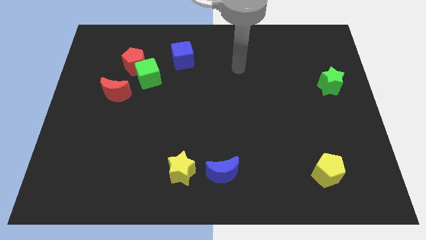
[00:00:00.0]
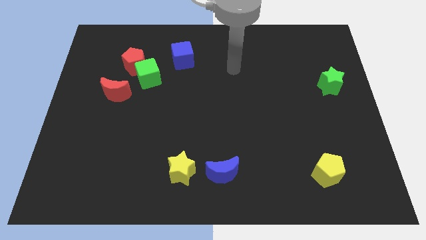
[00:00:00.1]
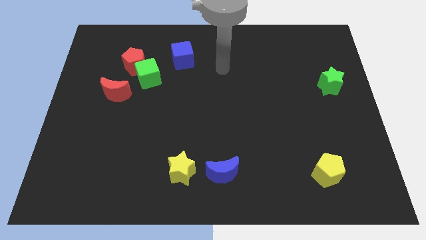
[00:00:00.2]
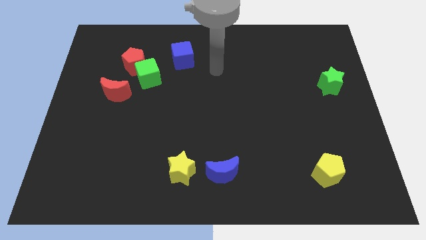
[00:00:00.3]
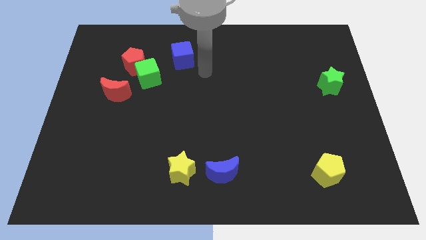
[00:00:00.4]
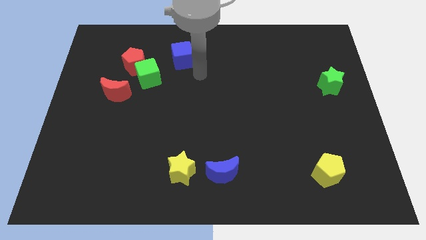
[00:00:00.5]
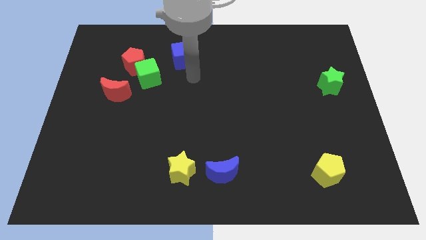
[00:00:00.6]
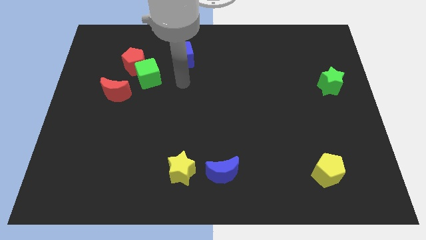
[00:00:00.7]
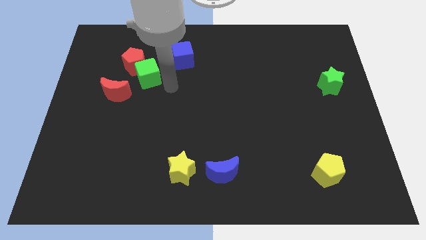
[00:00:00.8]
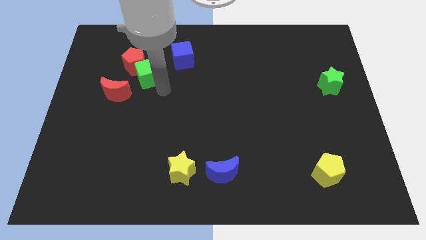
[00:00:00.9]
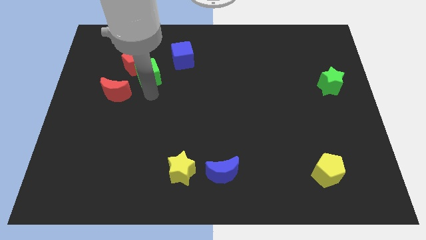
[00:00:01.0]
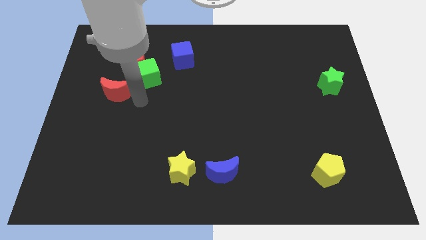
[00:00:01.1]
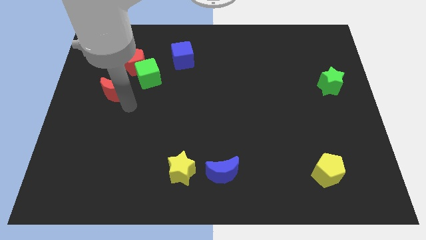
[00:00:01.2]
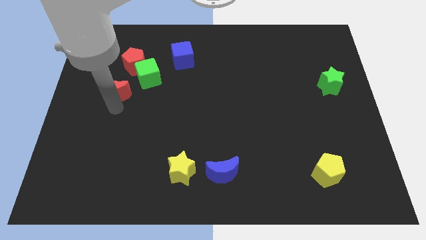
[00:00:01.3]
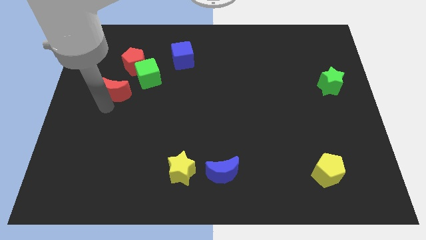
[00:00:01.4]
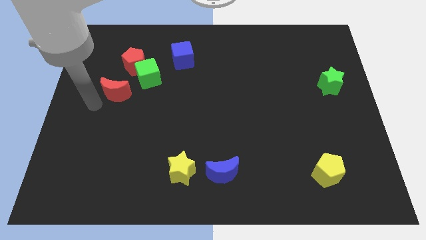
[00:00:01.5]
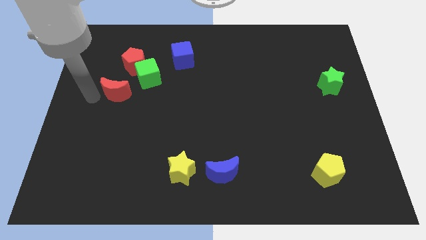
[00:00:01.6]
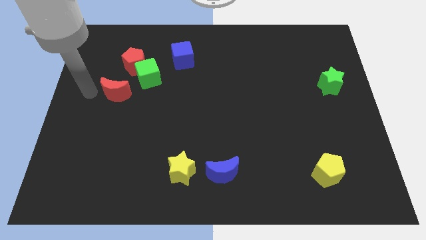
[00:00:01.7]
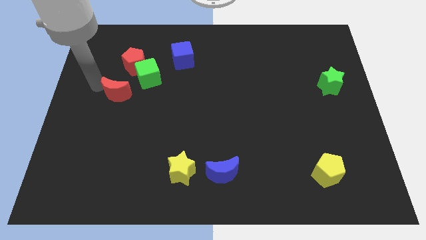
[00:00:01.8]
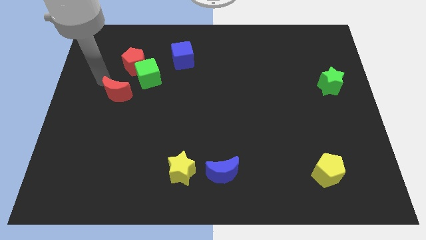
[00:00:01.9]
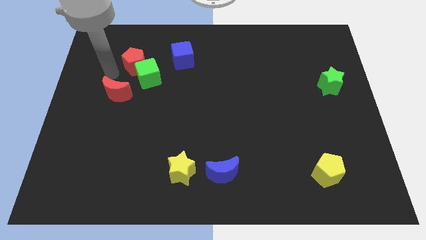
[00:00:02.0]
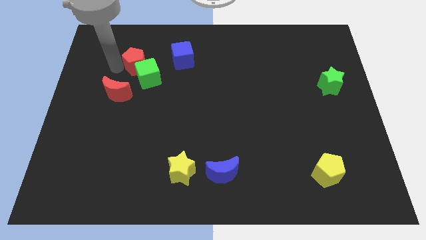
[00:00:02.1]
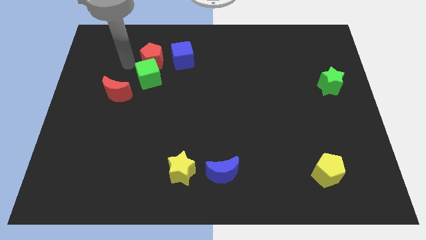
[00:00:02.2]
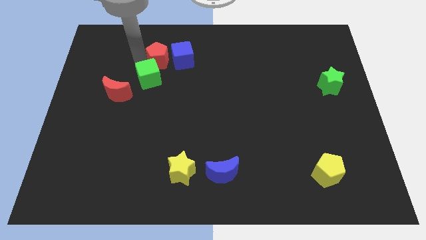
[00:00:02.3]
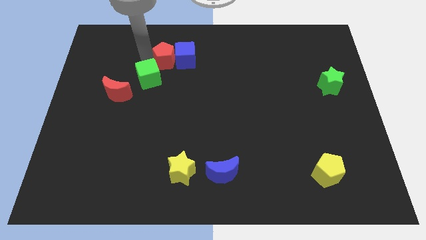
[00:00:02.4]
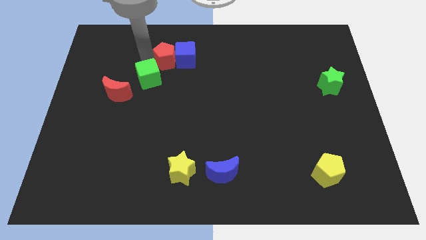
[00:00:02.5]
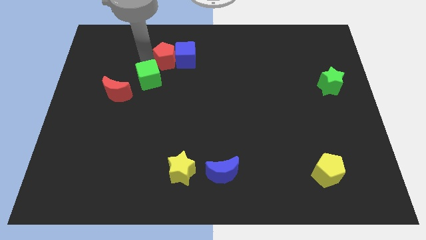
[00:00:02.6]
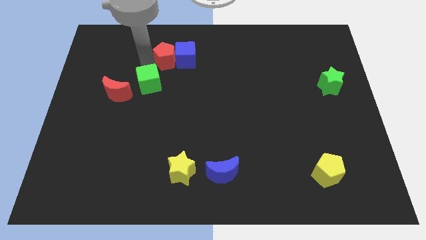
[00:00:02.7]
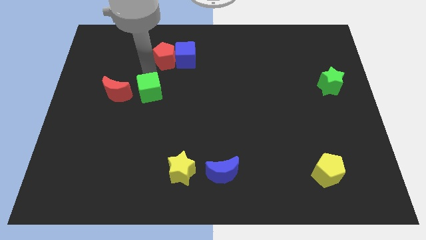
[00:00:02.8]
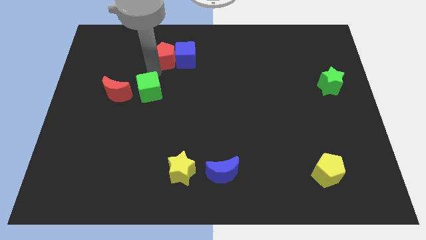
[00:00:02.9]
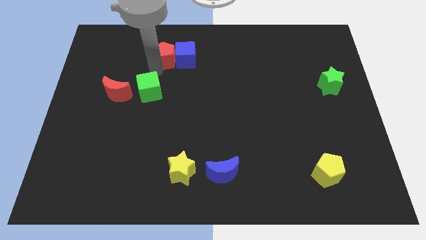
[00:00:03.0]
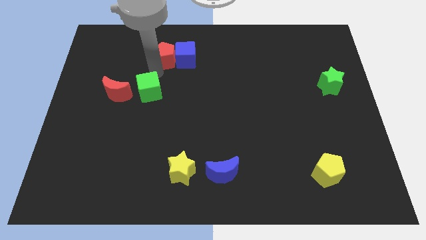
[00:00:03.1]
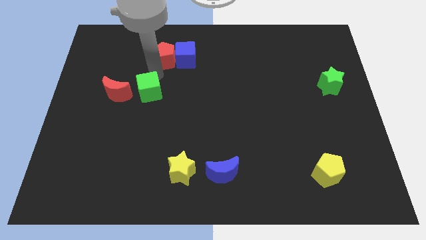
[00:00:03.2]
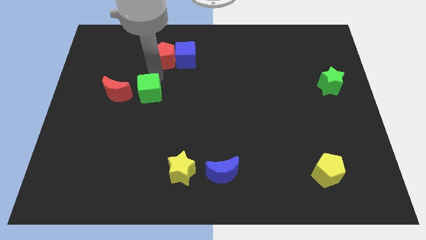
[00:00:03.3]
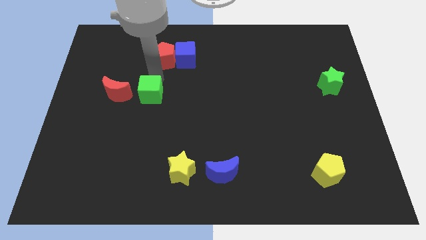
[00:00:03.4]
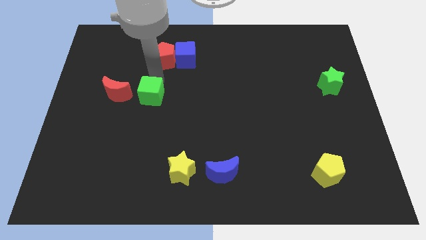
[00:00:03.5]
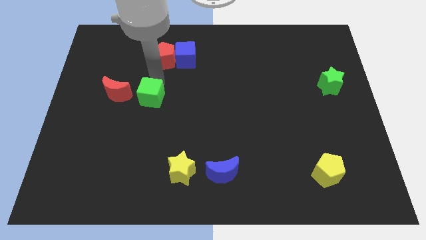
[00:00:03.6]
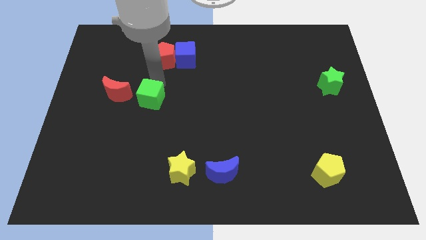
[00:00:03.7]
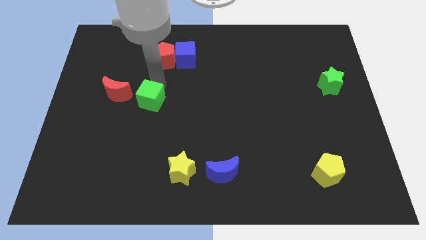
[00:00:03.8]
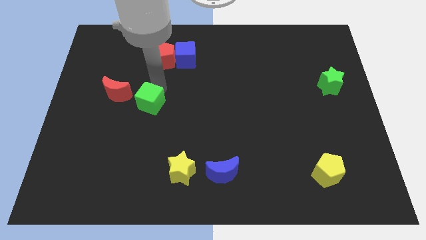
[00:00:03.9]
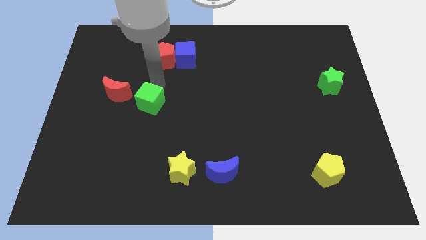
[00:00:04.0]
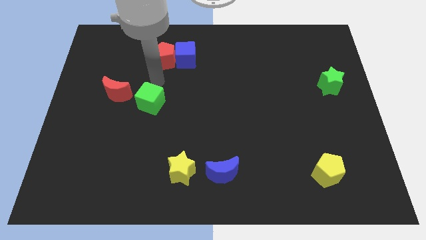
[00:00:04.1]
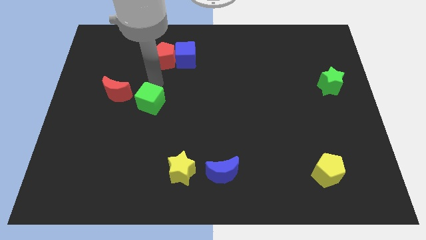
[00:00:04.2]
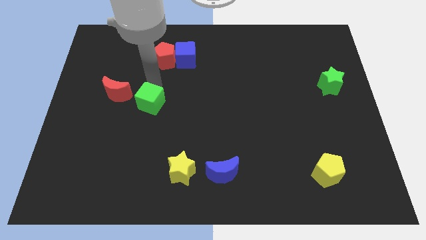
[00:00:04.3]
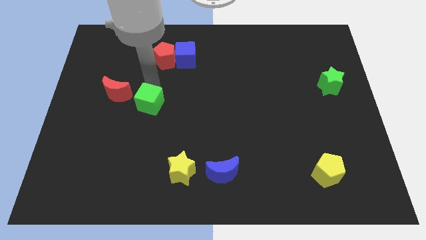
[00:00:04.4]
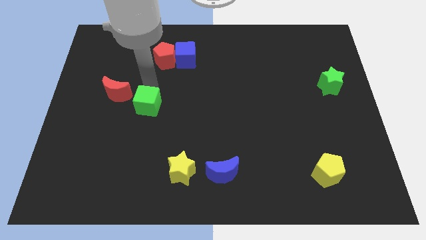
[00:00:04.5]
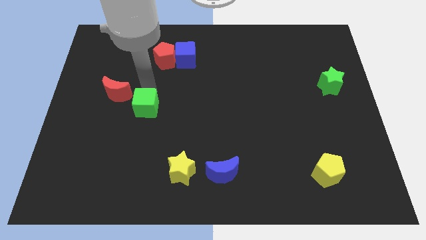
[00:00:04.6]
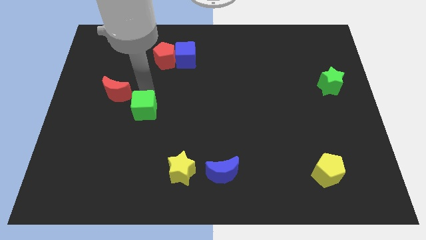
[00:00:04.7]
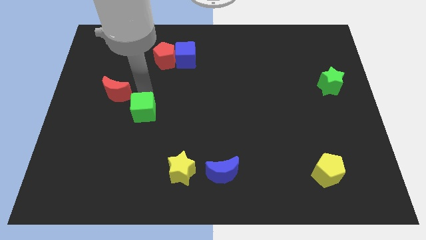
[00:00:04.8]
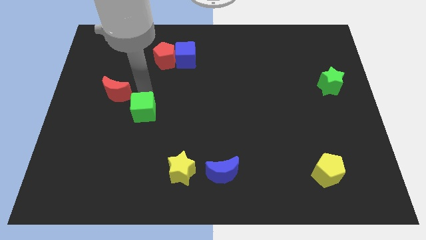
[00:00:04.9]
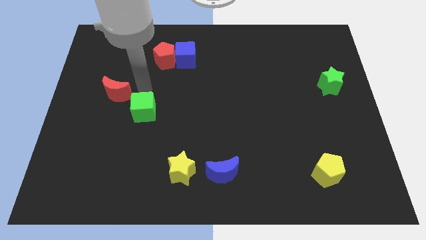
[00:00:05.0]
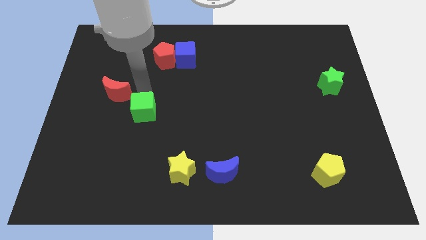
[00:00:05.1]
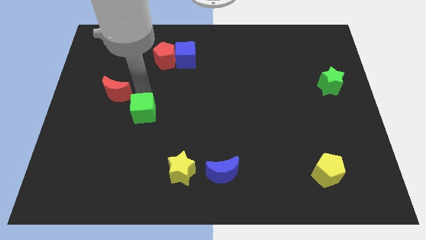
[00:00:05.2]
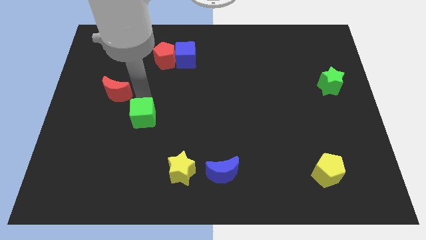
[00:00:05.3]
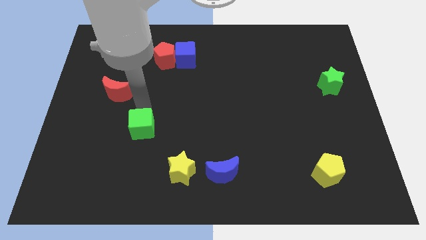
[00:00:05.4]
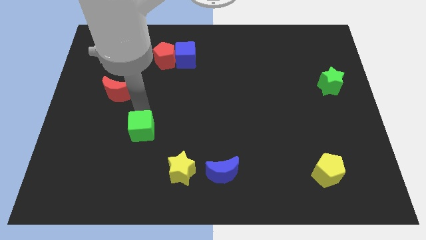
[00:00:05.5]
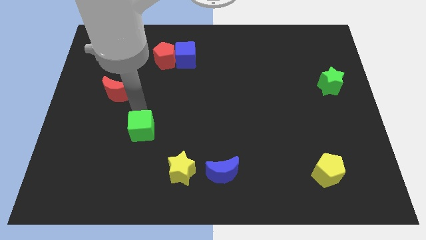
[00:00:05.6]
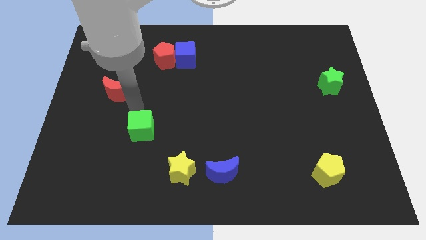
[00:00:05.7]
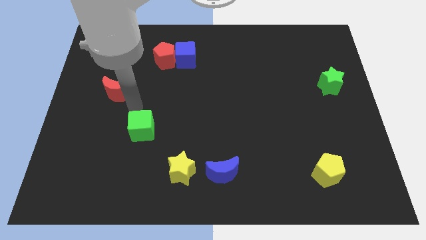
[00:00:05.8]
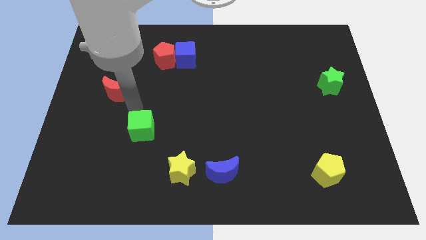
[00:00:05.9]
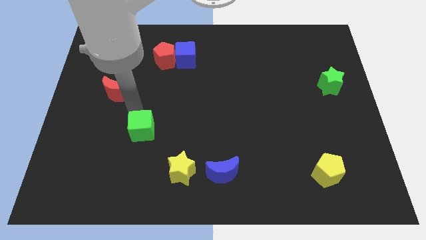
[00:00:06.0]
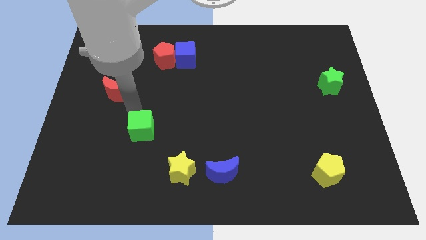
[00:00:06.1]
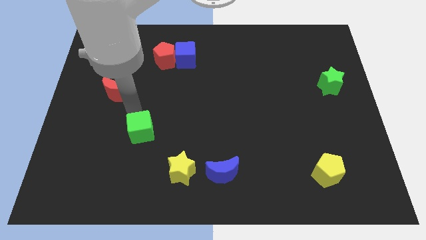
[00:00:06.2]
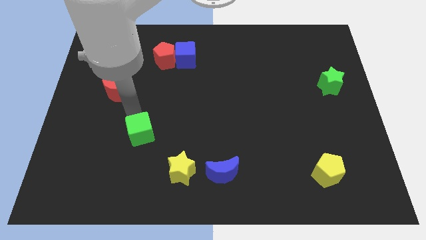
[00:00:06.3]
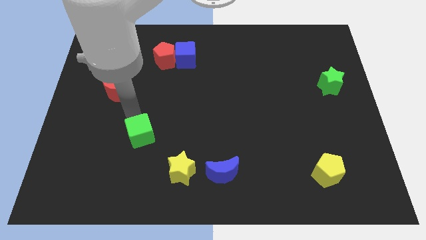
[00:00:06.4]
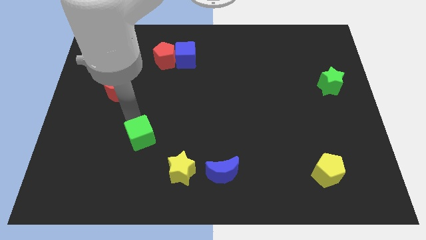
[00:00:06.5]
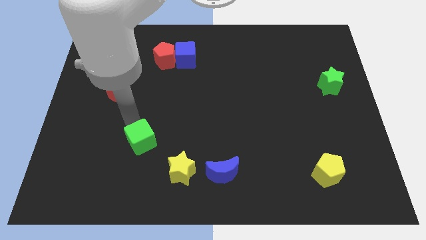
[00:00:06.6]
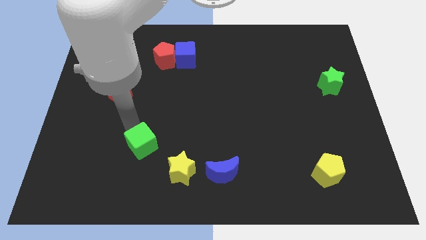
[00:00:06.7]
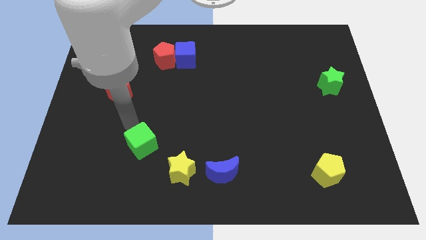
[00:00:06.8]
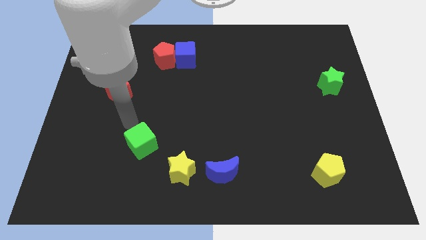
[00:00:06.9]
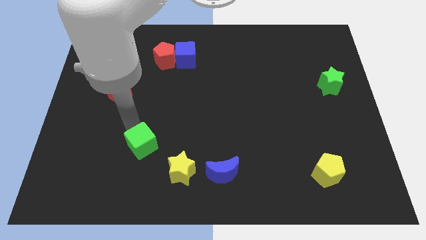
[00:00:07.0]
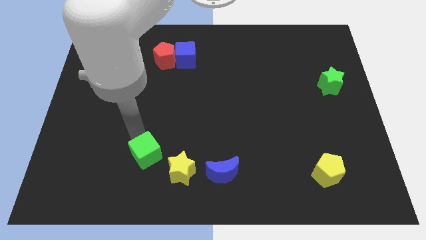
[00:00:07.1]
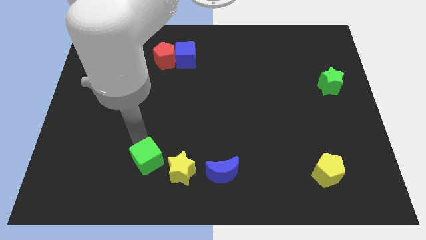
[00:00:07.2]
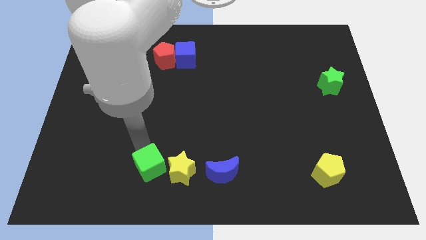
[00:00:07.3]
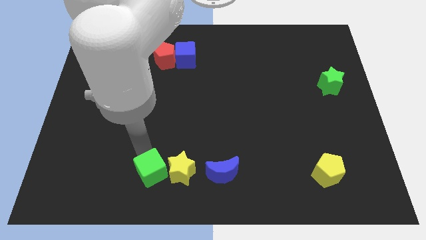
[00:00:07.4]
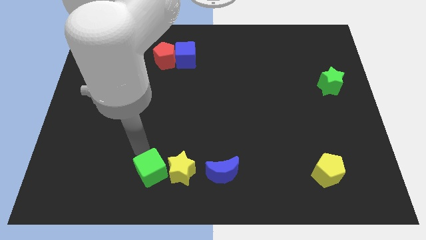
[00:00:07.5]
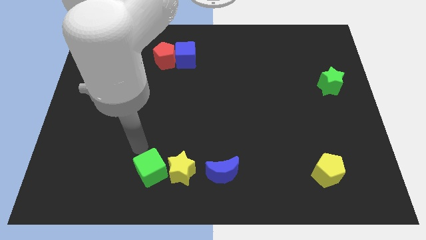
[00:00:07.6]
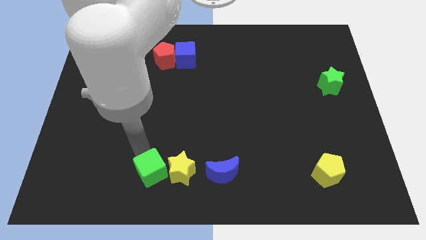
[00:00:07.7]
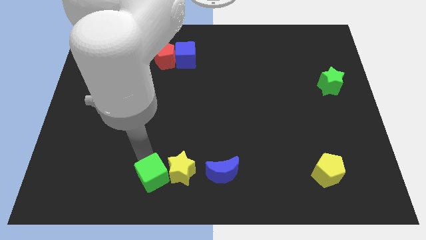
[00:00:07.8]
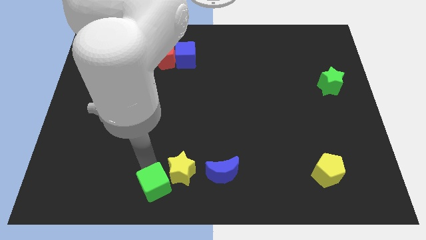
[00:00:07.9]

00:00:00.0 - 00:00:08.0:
move the green cube to the bottom
